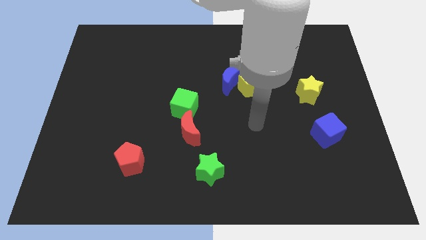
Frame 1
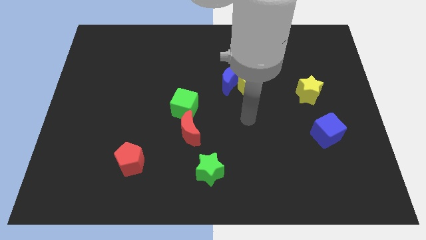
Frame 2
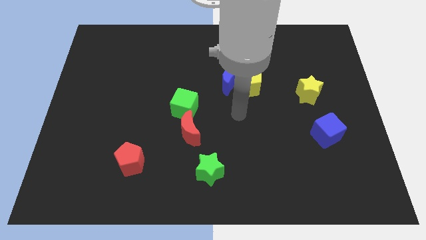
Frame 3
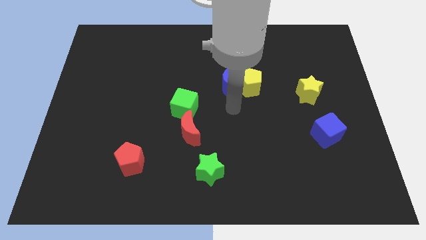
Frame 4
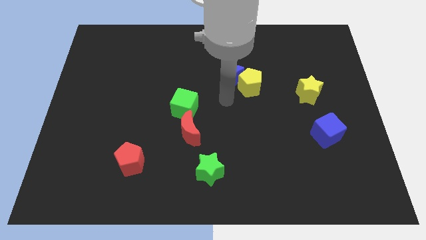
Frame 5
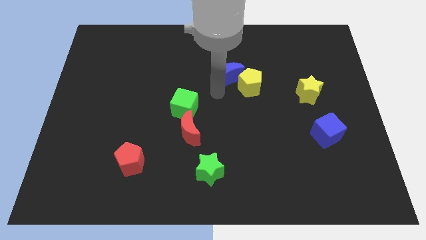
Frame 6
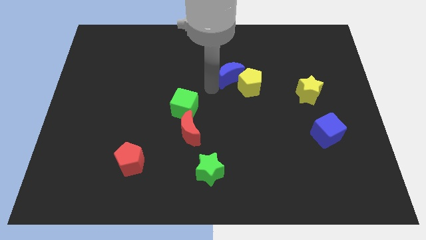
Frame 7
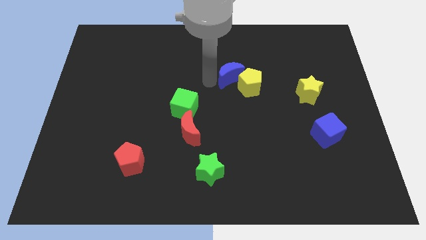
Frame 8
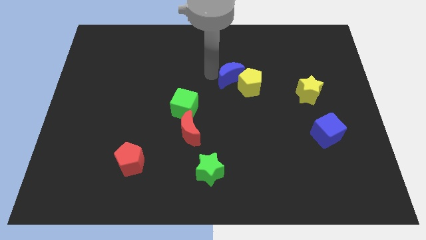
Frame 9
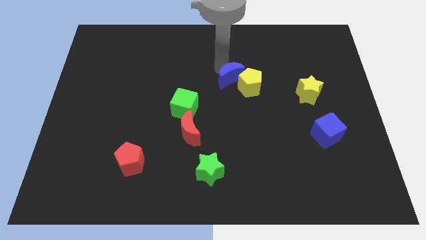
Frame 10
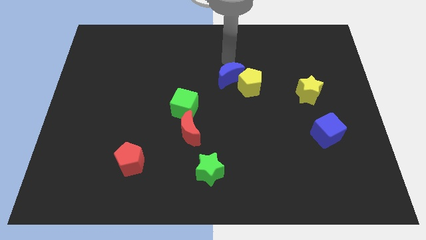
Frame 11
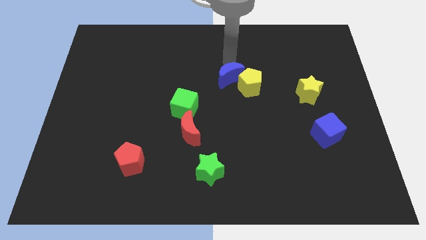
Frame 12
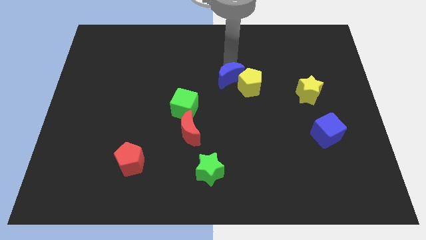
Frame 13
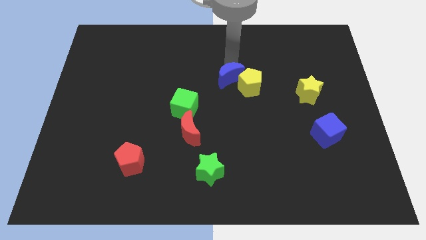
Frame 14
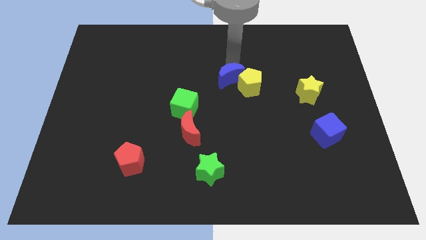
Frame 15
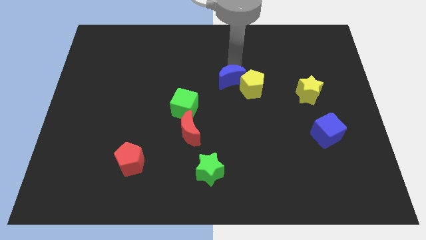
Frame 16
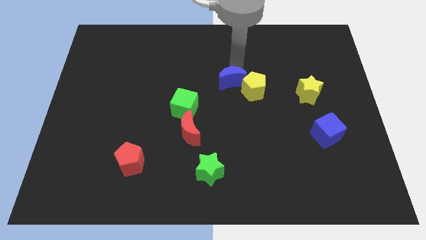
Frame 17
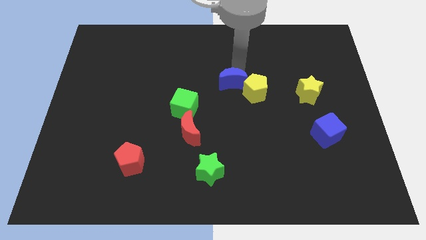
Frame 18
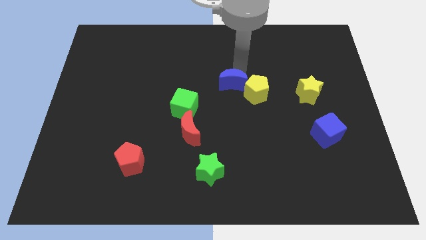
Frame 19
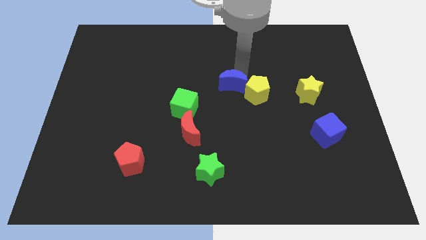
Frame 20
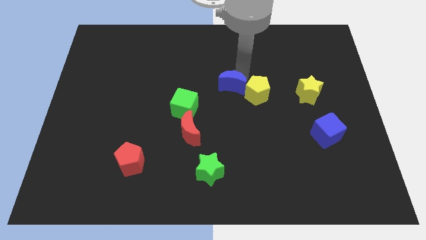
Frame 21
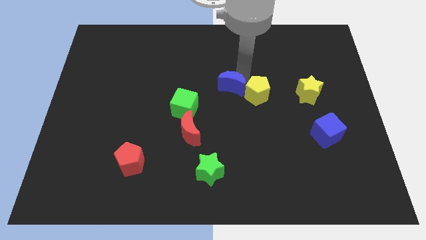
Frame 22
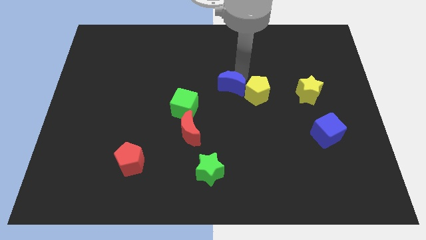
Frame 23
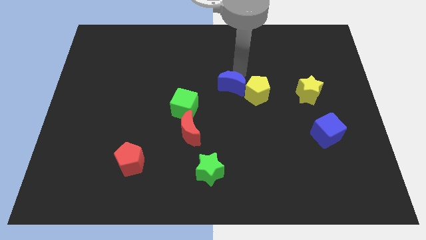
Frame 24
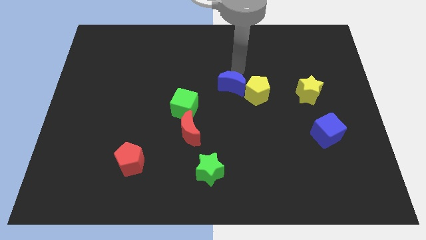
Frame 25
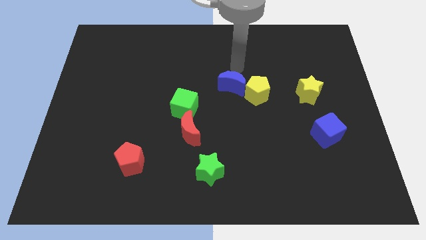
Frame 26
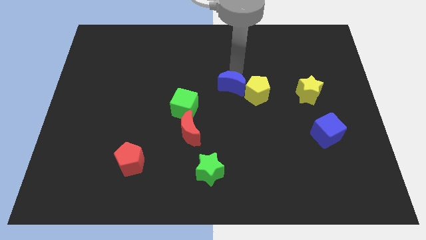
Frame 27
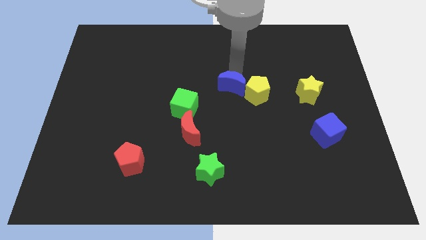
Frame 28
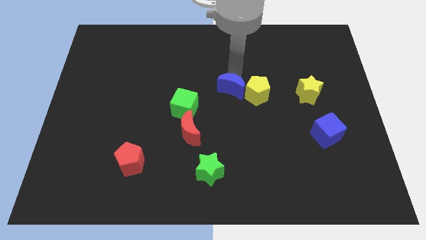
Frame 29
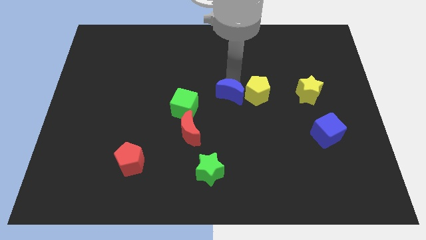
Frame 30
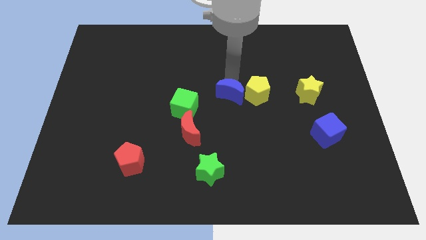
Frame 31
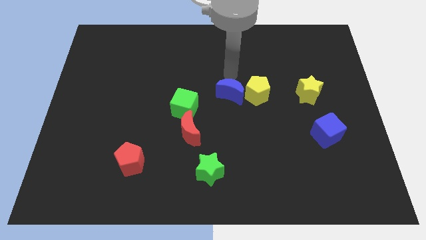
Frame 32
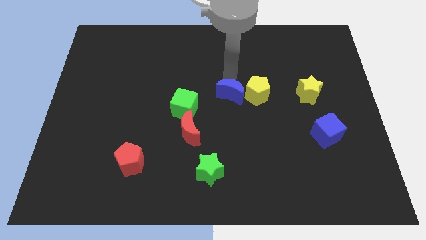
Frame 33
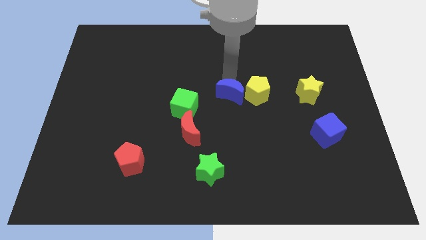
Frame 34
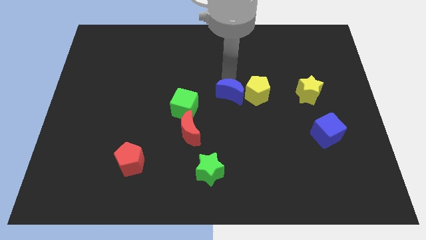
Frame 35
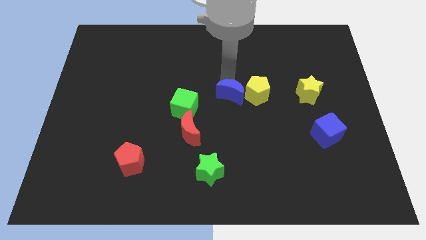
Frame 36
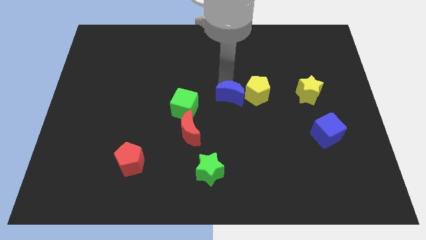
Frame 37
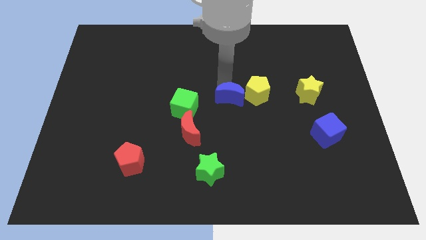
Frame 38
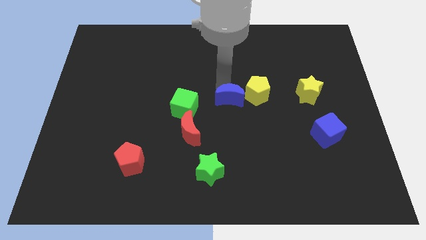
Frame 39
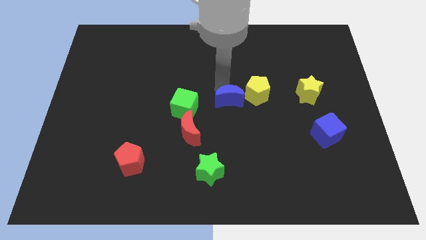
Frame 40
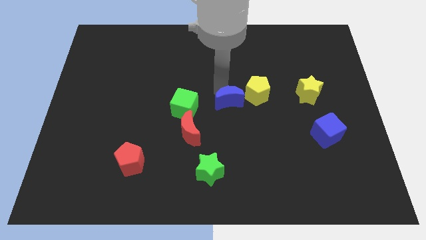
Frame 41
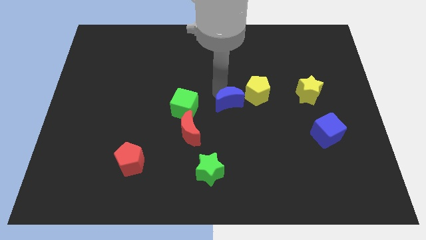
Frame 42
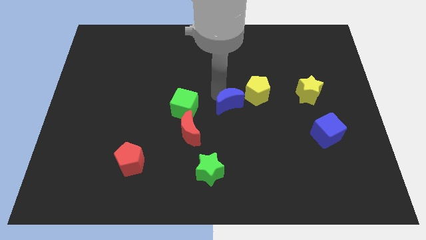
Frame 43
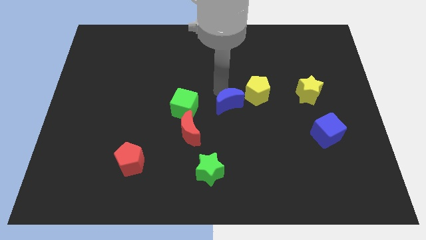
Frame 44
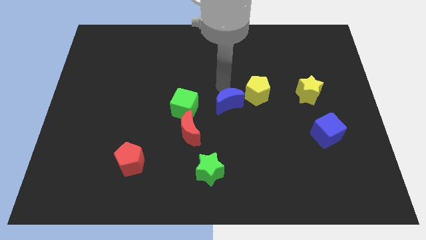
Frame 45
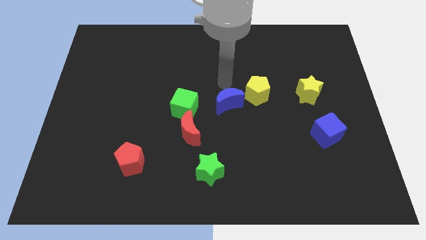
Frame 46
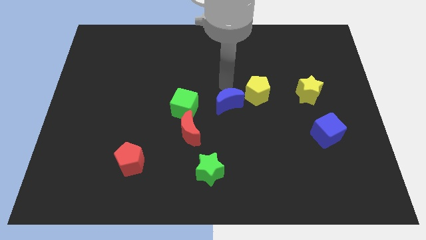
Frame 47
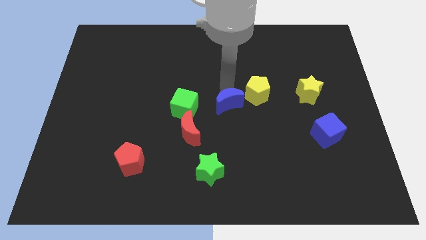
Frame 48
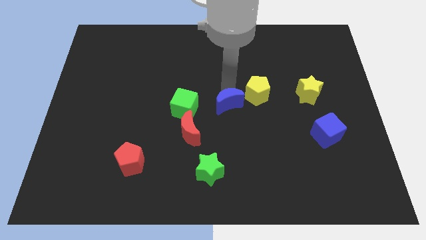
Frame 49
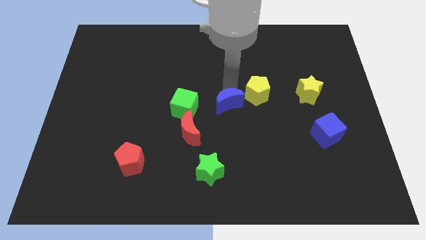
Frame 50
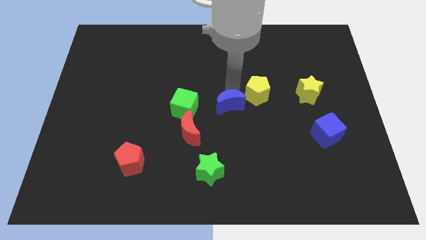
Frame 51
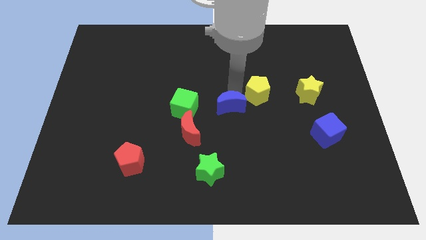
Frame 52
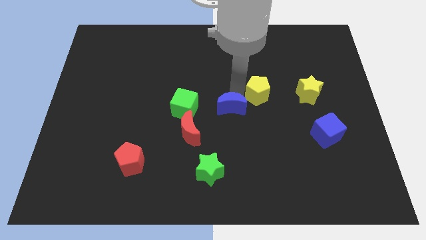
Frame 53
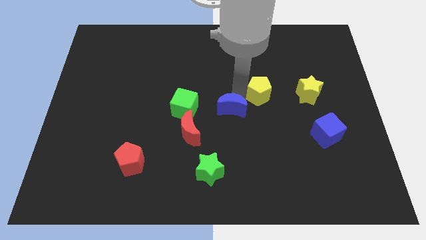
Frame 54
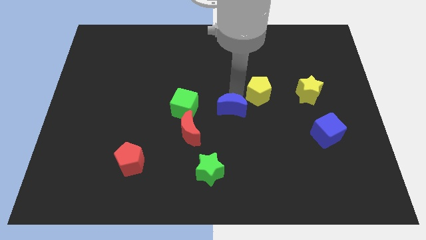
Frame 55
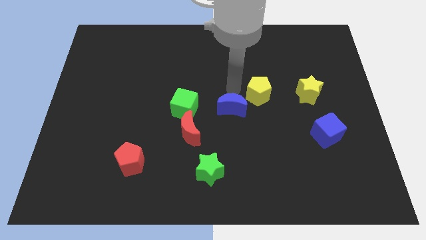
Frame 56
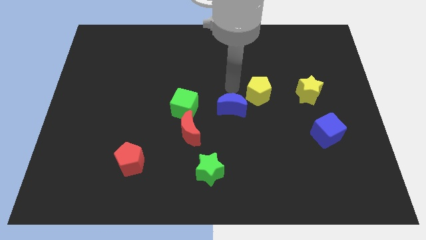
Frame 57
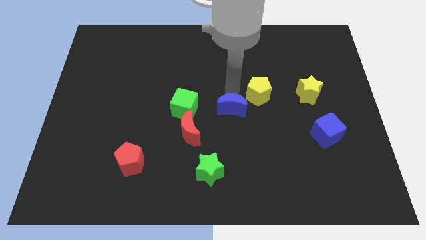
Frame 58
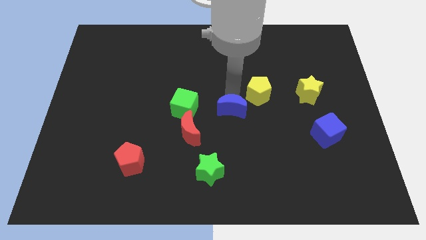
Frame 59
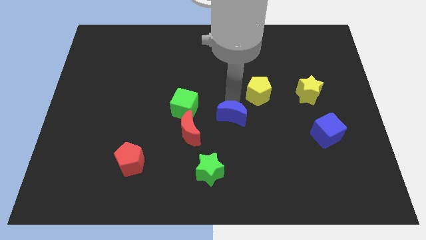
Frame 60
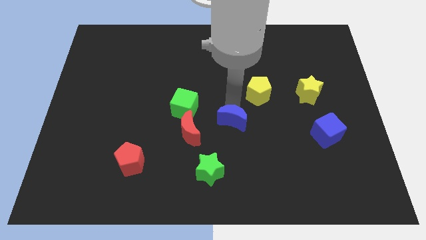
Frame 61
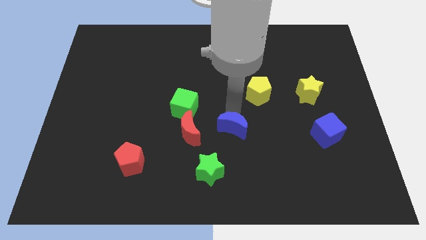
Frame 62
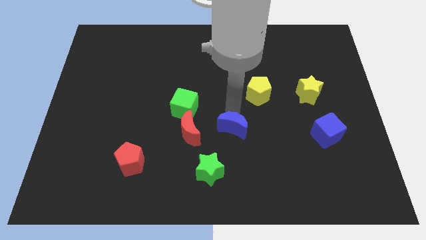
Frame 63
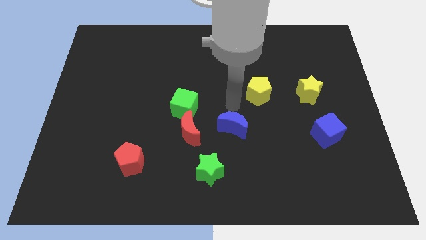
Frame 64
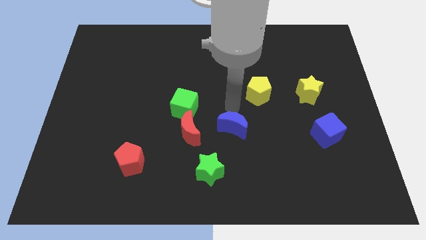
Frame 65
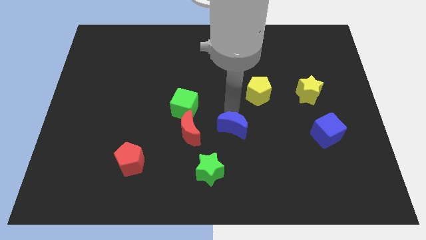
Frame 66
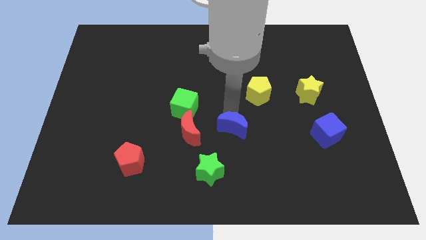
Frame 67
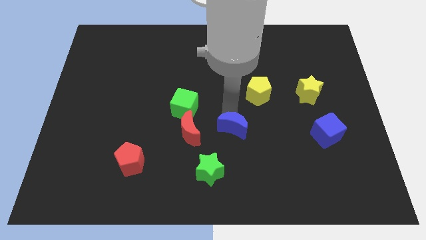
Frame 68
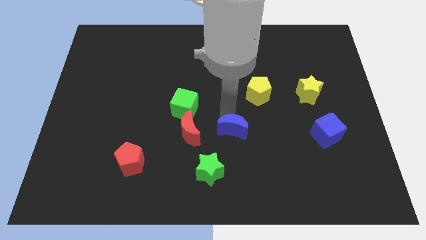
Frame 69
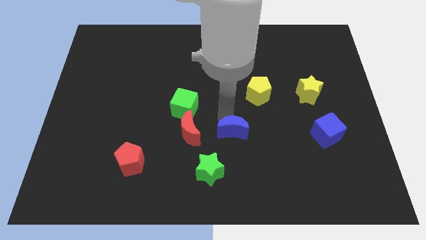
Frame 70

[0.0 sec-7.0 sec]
push the blue moon to the top right side of the green star
